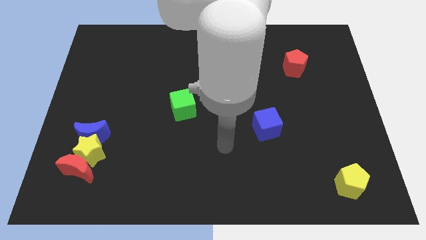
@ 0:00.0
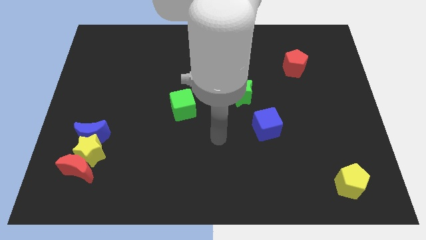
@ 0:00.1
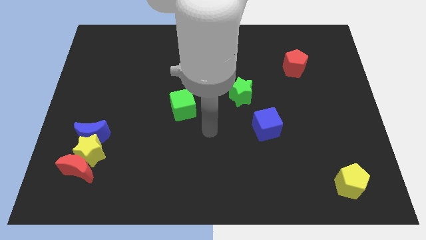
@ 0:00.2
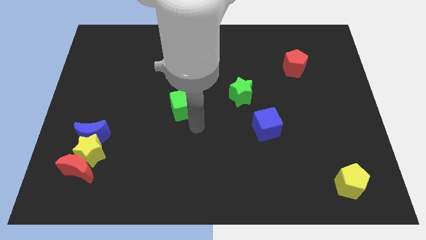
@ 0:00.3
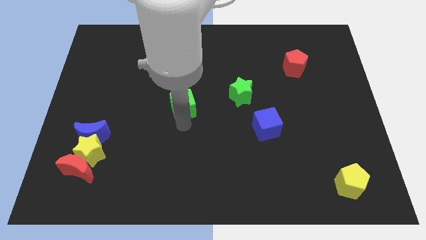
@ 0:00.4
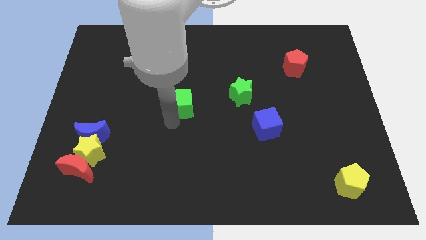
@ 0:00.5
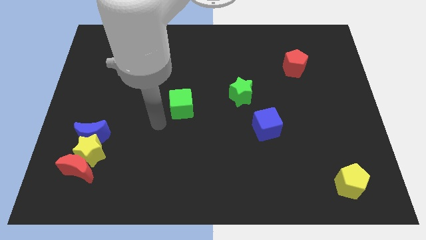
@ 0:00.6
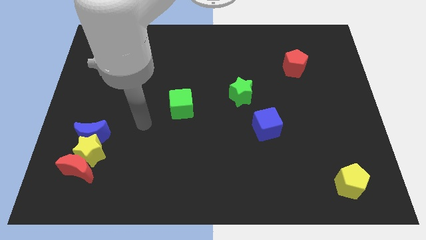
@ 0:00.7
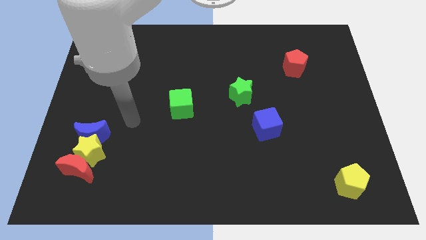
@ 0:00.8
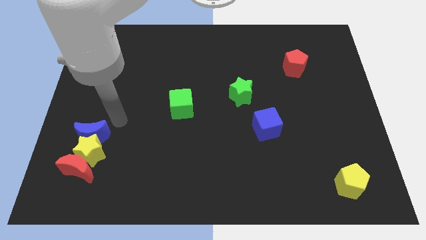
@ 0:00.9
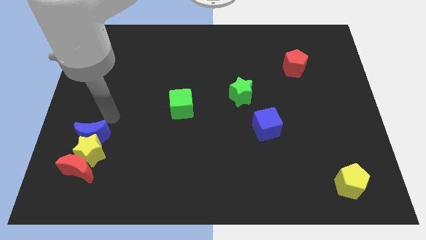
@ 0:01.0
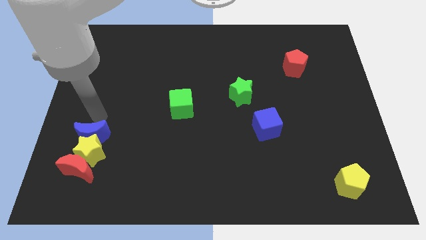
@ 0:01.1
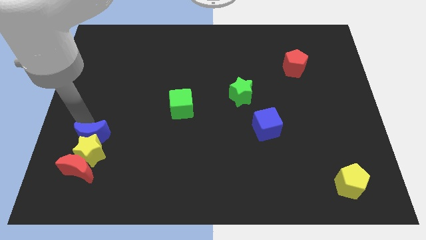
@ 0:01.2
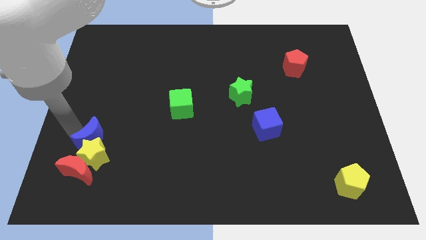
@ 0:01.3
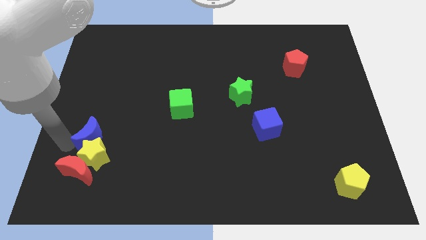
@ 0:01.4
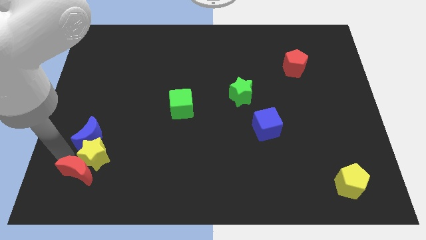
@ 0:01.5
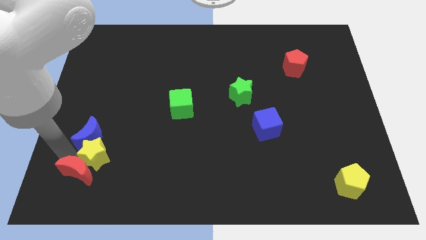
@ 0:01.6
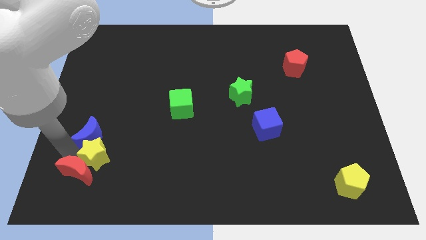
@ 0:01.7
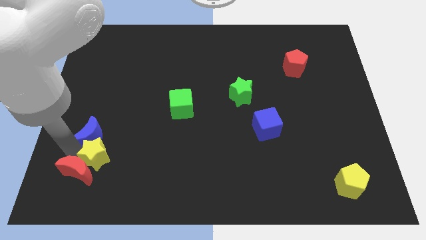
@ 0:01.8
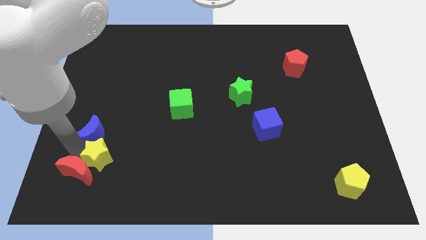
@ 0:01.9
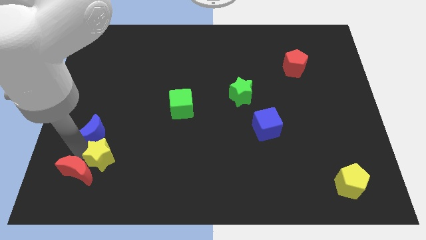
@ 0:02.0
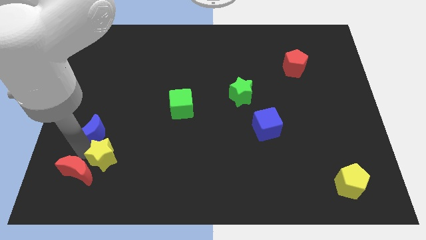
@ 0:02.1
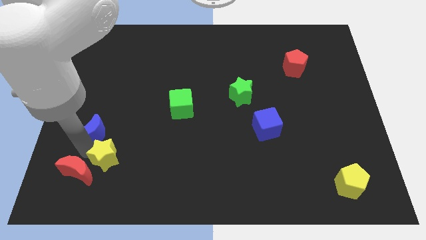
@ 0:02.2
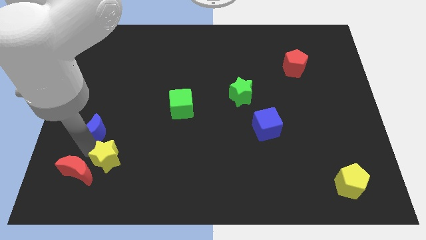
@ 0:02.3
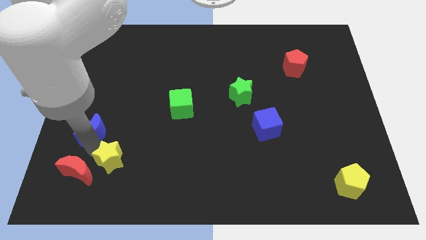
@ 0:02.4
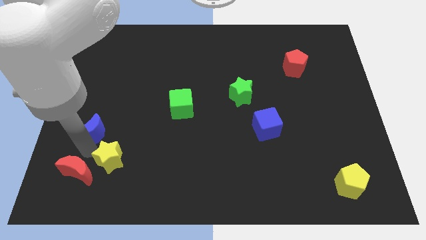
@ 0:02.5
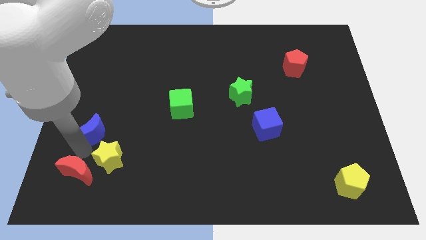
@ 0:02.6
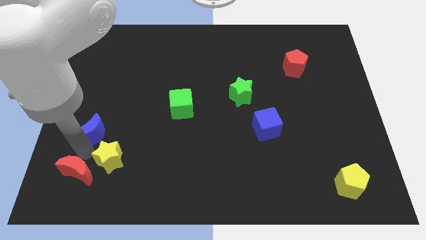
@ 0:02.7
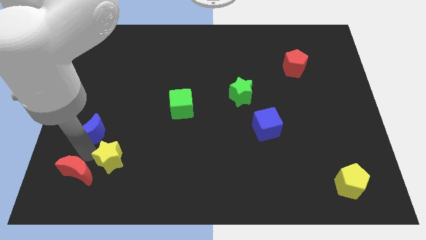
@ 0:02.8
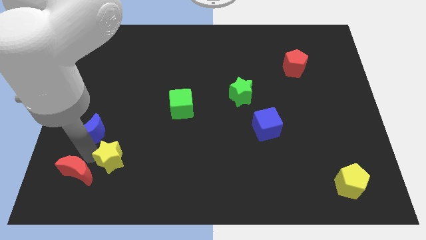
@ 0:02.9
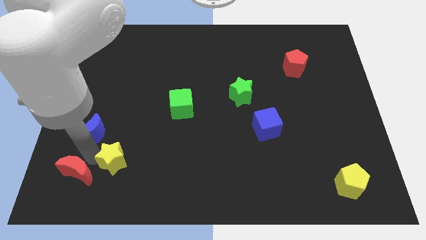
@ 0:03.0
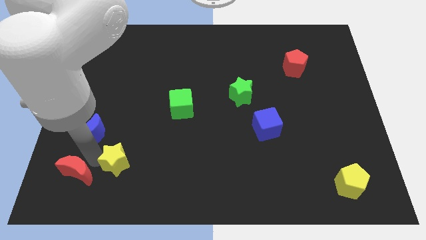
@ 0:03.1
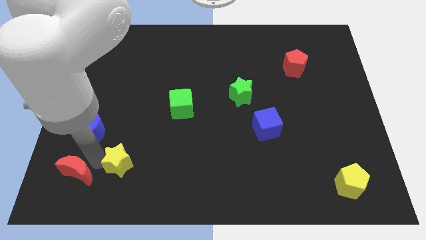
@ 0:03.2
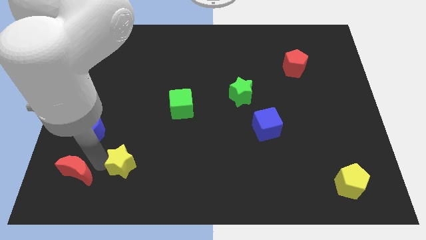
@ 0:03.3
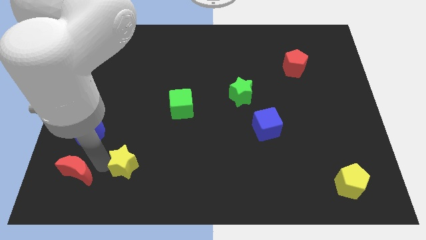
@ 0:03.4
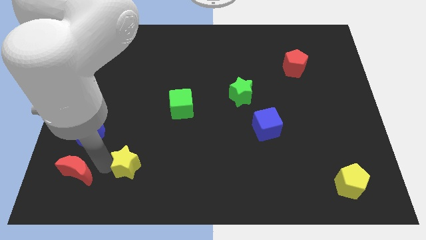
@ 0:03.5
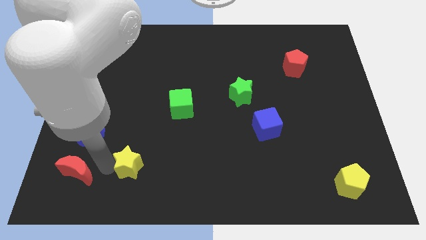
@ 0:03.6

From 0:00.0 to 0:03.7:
pull the yellow star apart from the blue moon and red moon

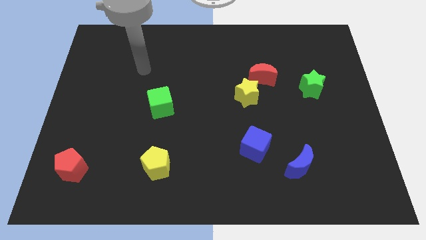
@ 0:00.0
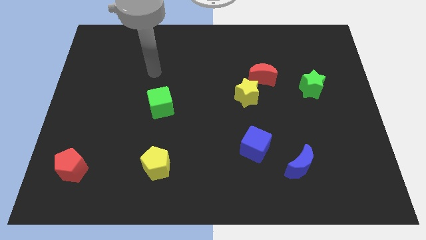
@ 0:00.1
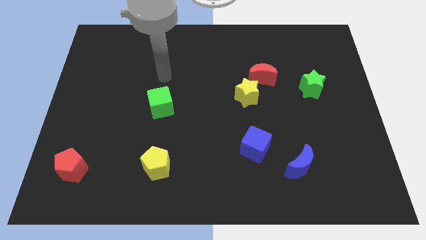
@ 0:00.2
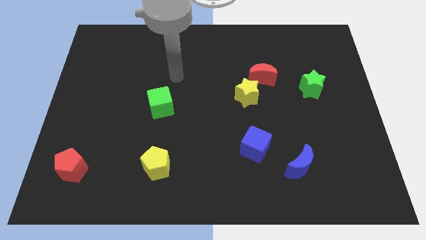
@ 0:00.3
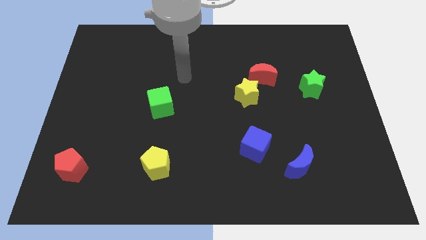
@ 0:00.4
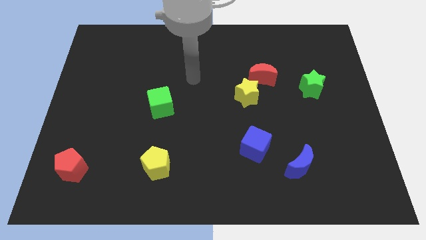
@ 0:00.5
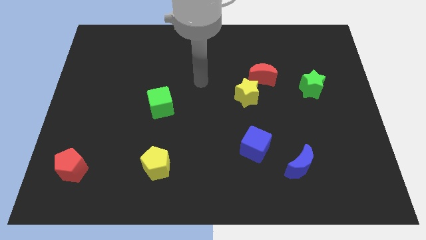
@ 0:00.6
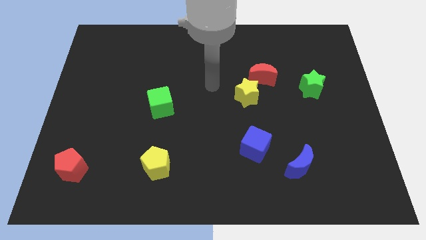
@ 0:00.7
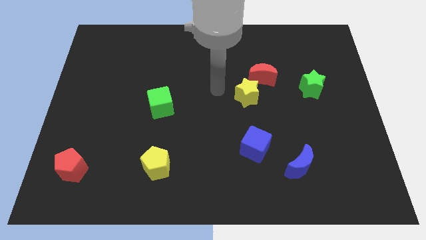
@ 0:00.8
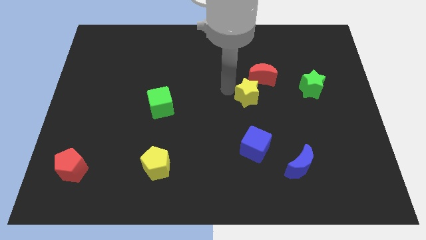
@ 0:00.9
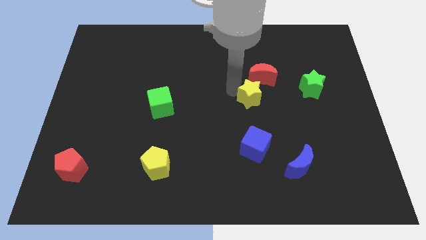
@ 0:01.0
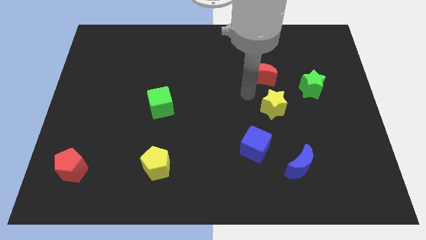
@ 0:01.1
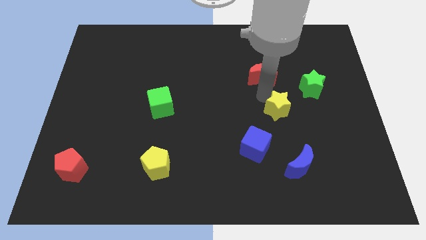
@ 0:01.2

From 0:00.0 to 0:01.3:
separate the red moon from the yellow star

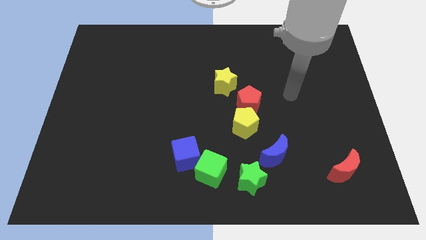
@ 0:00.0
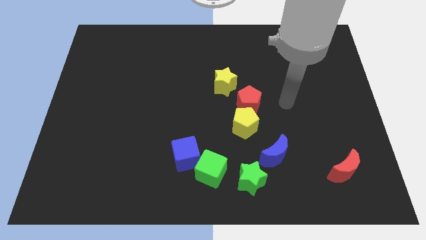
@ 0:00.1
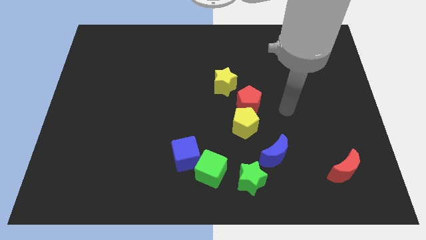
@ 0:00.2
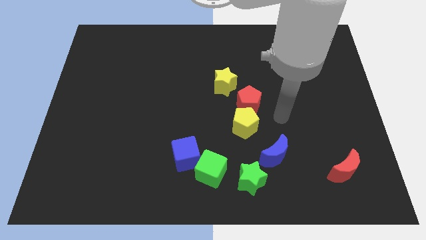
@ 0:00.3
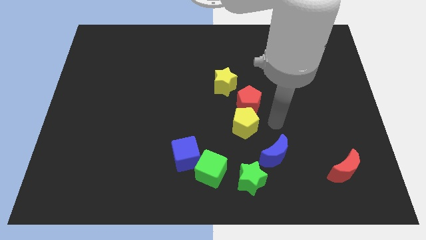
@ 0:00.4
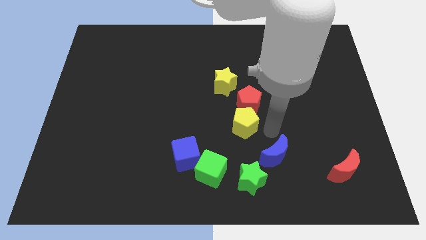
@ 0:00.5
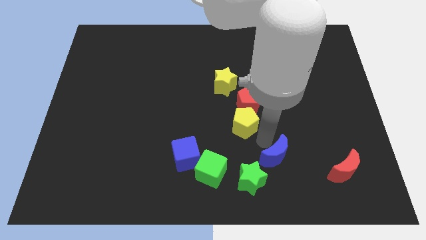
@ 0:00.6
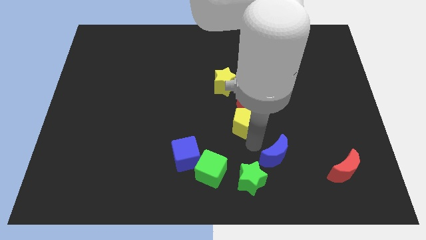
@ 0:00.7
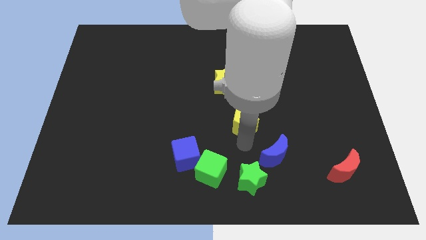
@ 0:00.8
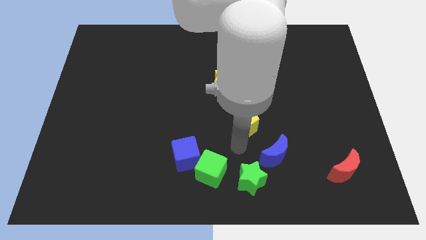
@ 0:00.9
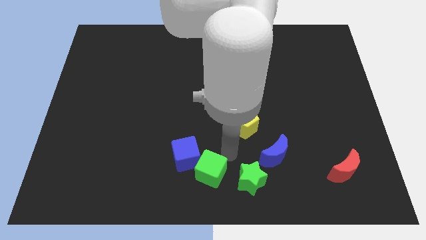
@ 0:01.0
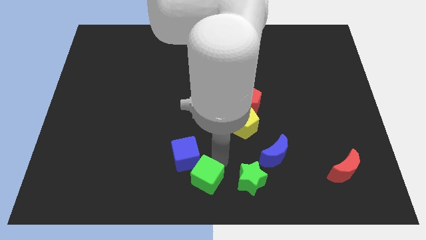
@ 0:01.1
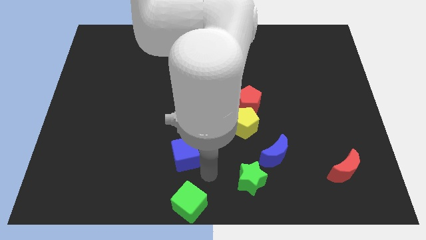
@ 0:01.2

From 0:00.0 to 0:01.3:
separate the blue cube from the green cube

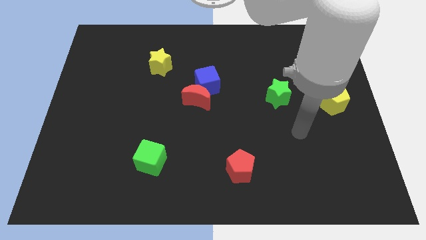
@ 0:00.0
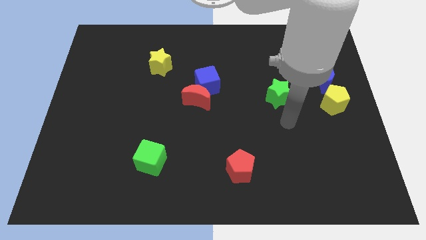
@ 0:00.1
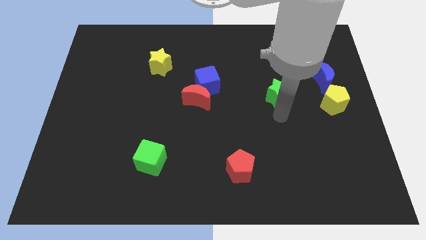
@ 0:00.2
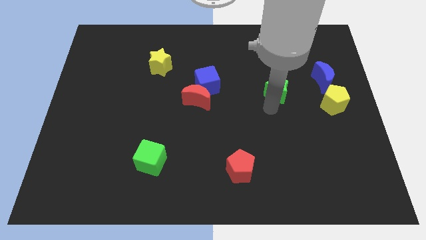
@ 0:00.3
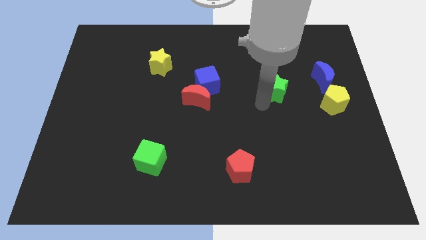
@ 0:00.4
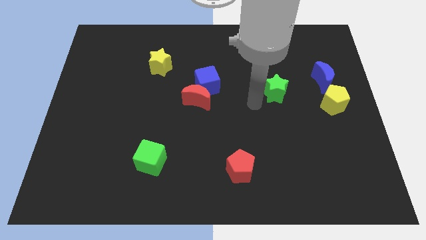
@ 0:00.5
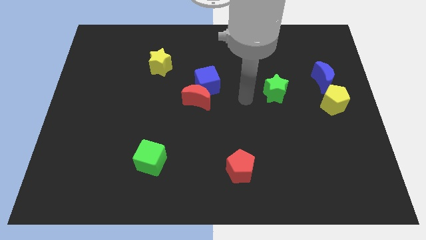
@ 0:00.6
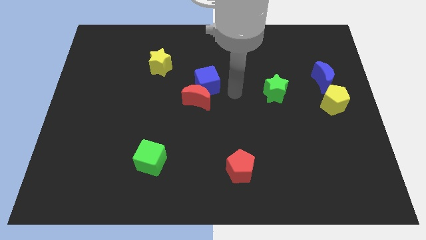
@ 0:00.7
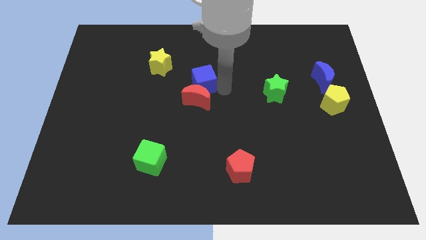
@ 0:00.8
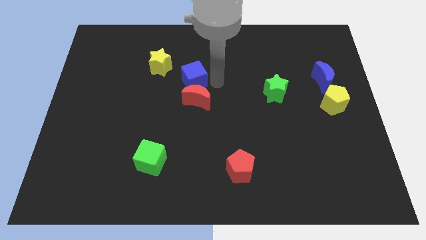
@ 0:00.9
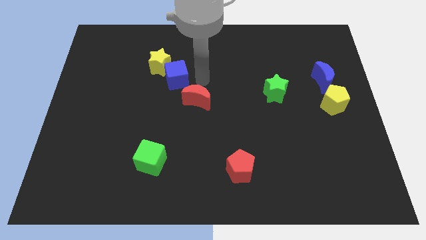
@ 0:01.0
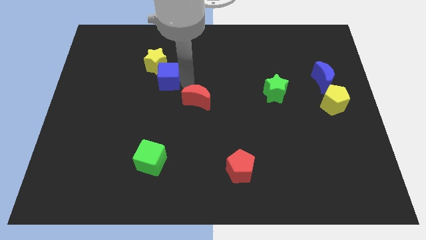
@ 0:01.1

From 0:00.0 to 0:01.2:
pull the red moon apart from the blue cube

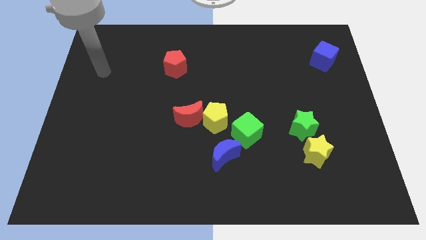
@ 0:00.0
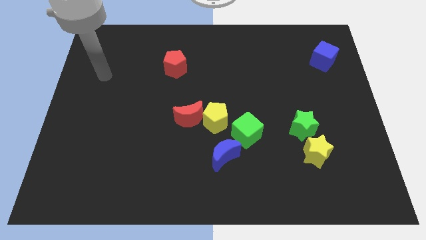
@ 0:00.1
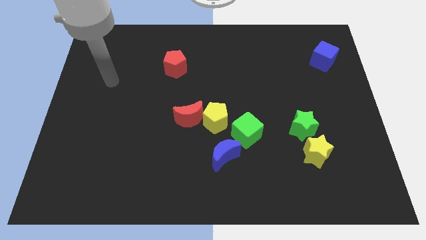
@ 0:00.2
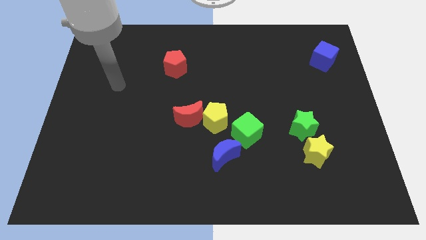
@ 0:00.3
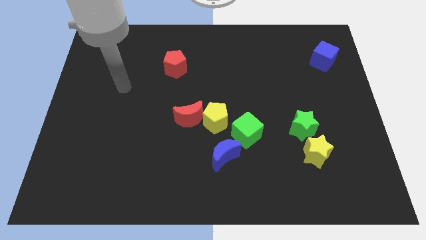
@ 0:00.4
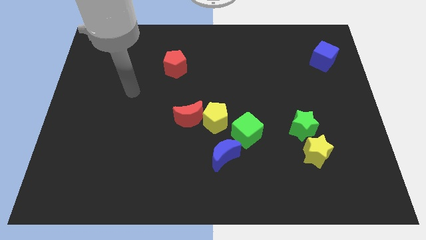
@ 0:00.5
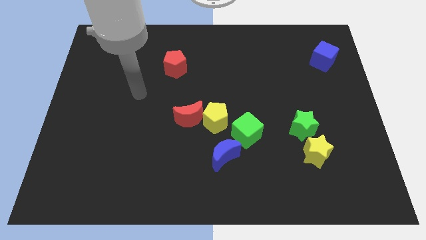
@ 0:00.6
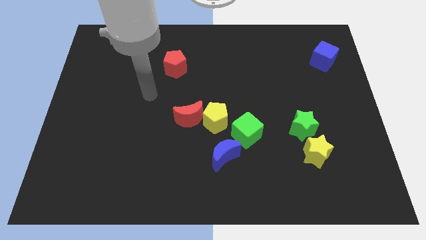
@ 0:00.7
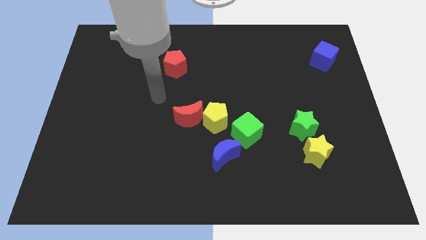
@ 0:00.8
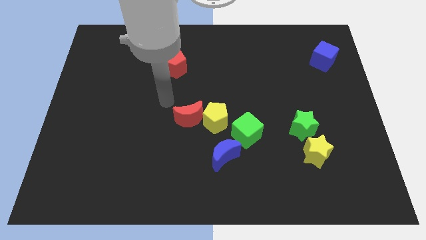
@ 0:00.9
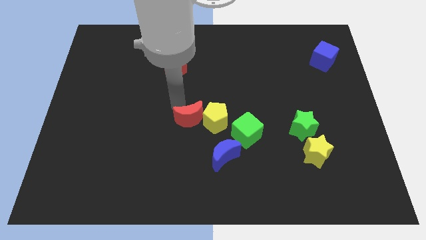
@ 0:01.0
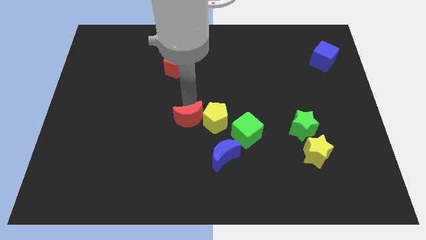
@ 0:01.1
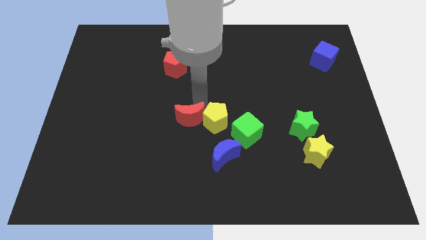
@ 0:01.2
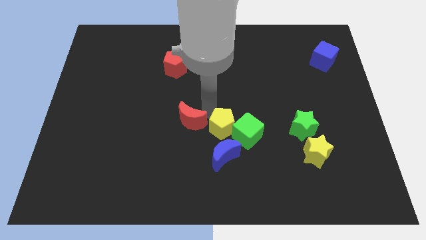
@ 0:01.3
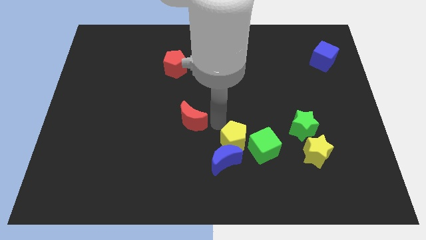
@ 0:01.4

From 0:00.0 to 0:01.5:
separate the red moon from the yellow pentagon

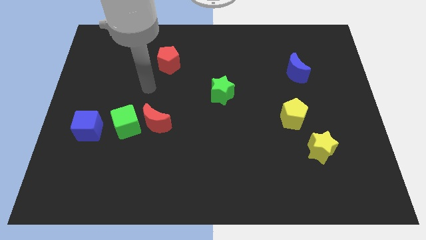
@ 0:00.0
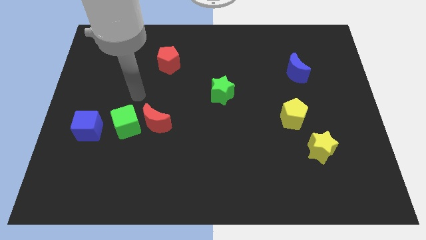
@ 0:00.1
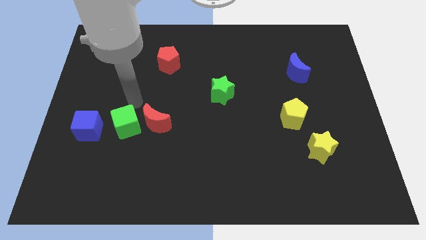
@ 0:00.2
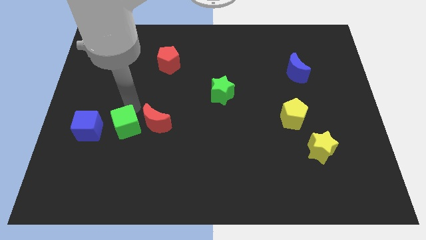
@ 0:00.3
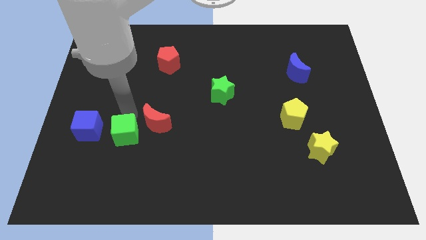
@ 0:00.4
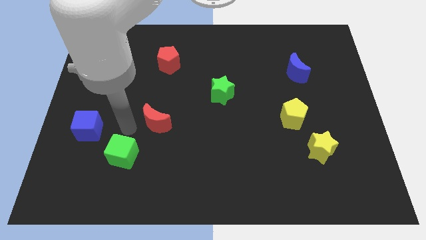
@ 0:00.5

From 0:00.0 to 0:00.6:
separate the red moon from the green cube
